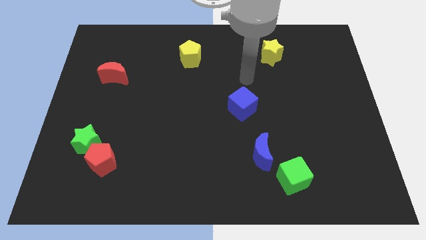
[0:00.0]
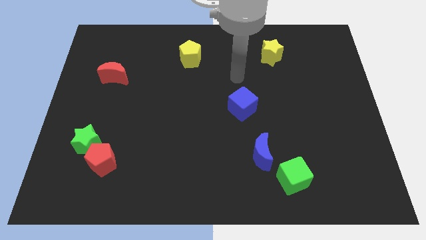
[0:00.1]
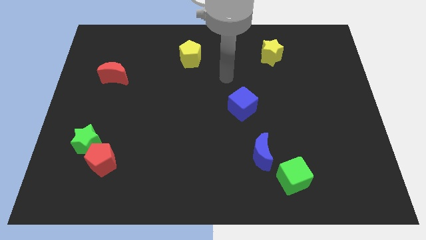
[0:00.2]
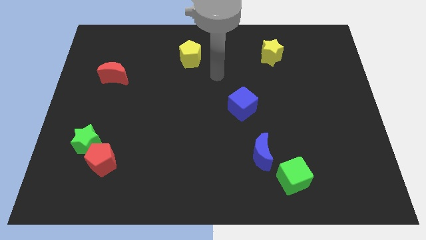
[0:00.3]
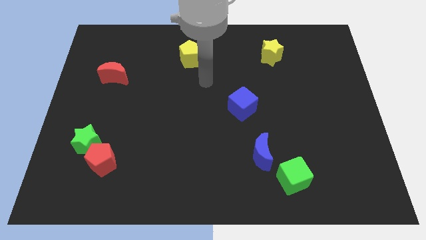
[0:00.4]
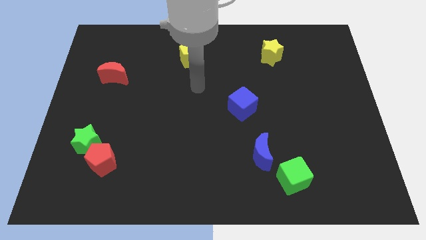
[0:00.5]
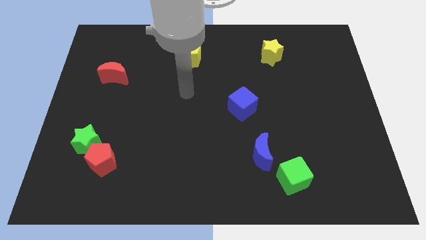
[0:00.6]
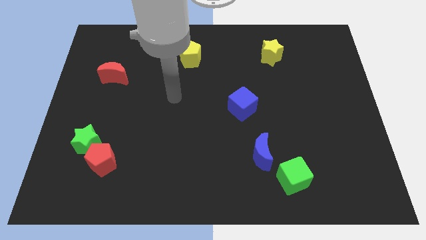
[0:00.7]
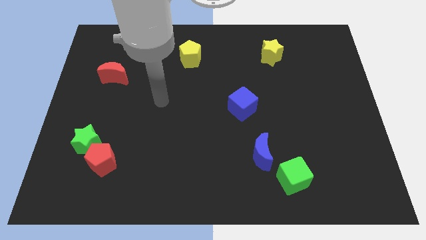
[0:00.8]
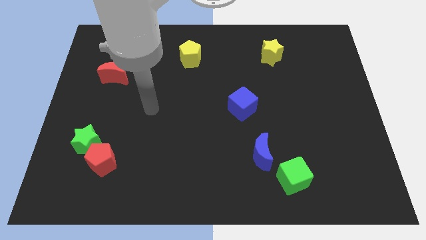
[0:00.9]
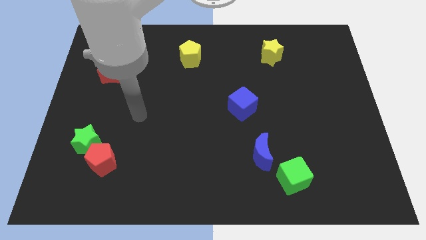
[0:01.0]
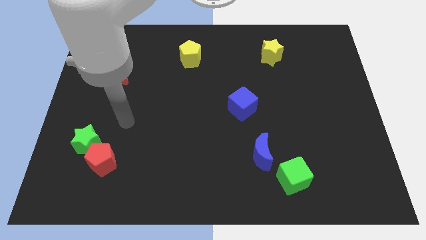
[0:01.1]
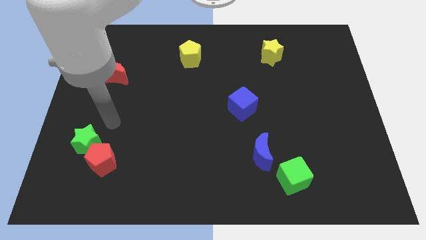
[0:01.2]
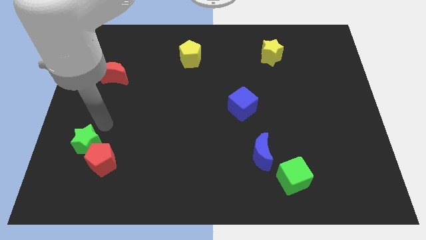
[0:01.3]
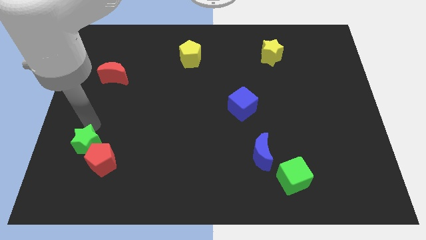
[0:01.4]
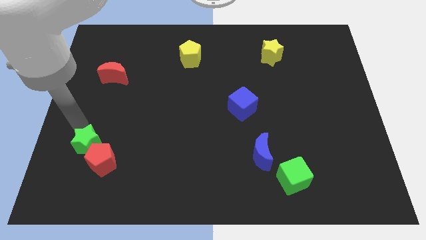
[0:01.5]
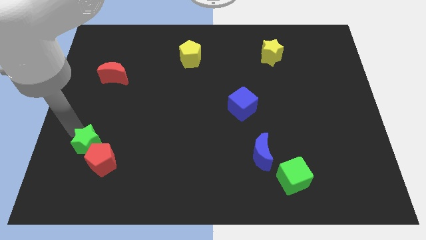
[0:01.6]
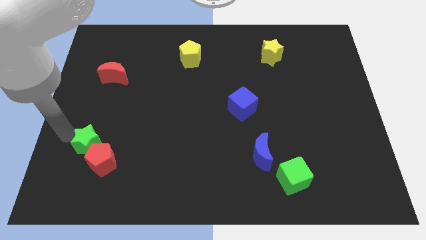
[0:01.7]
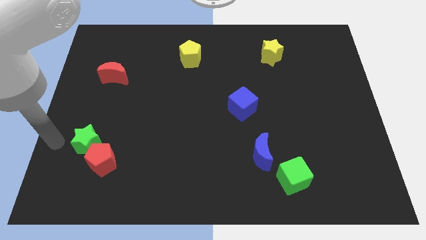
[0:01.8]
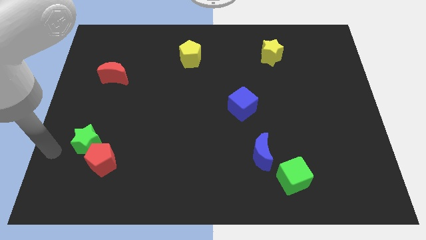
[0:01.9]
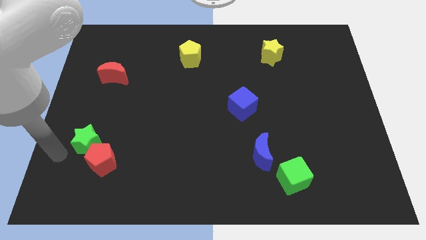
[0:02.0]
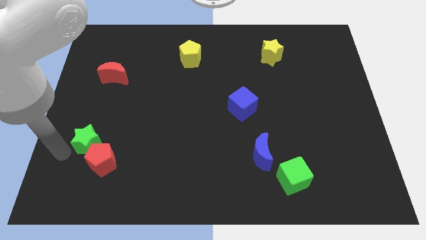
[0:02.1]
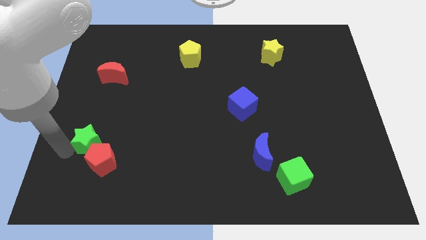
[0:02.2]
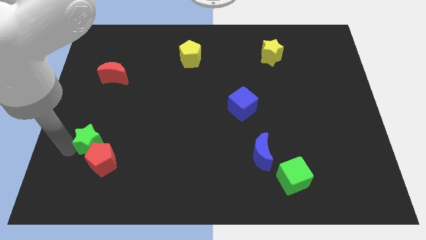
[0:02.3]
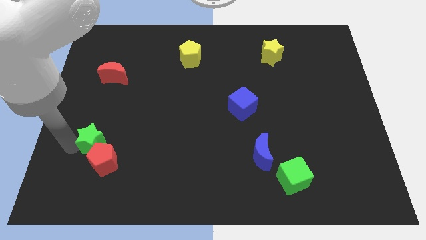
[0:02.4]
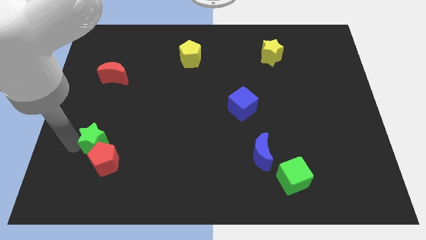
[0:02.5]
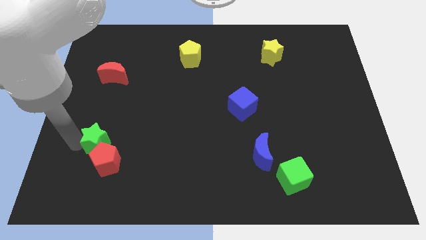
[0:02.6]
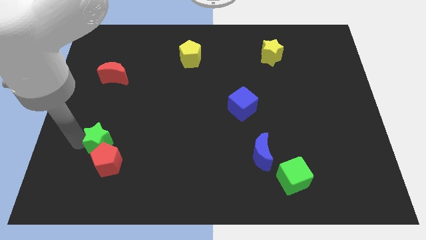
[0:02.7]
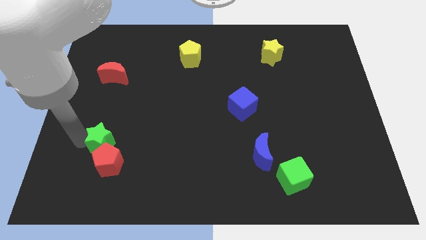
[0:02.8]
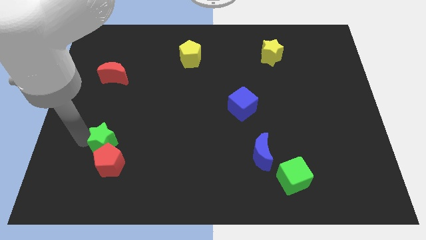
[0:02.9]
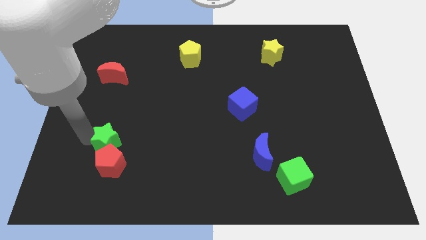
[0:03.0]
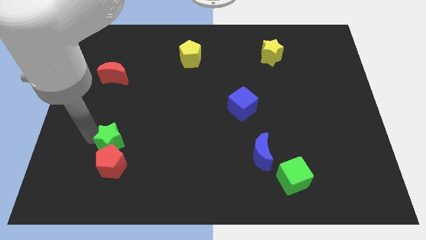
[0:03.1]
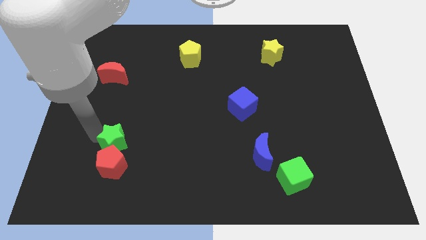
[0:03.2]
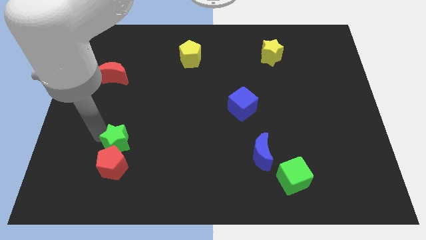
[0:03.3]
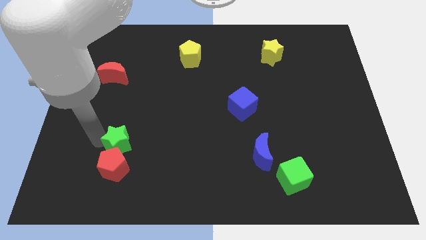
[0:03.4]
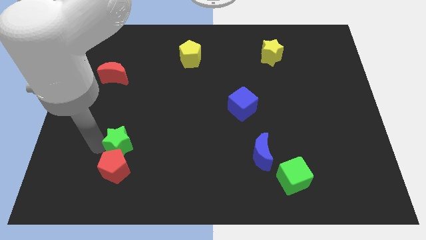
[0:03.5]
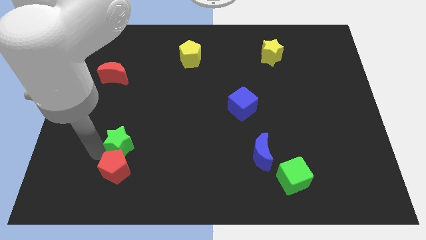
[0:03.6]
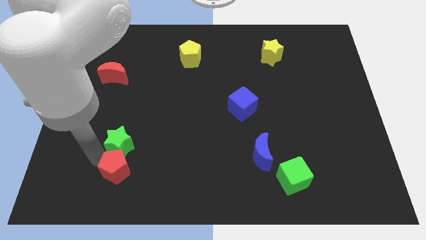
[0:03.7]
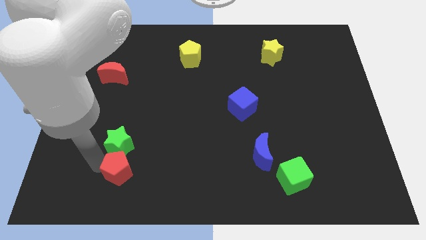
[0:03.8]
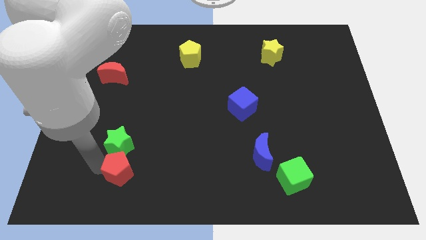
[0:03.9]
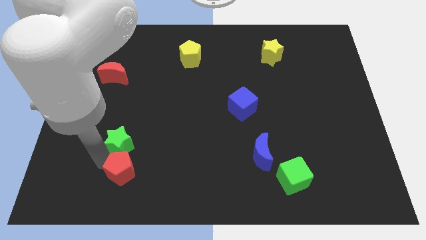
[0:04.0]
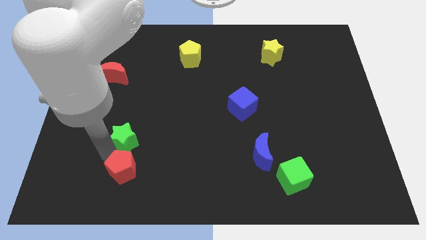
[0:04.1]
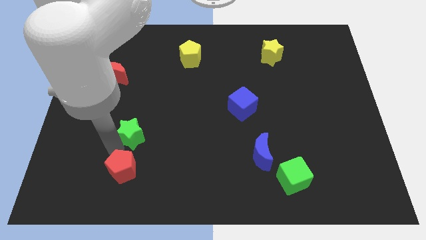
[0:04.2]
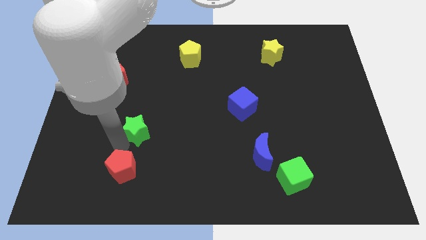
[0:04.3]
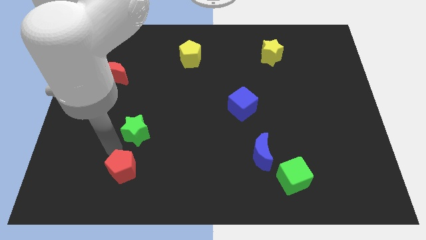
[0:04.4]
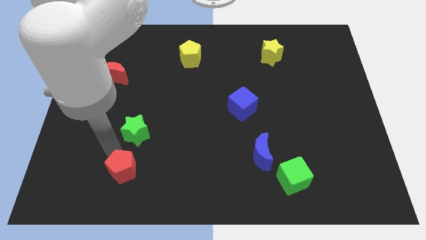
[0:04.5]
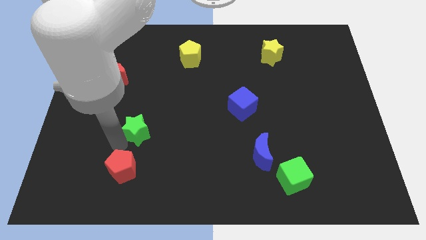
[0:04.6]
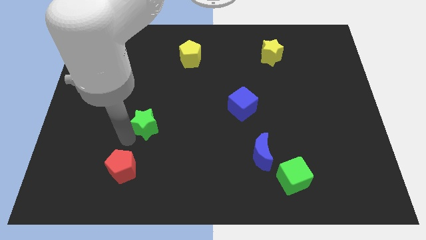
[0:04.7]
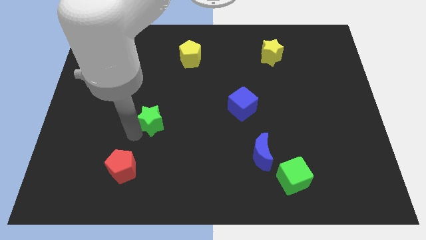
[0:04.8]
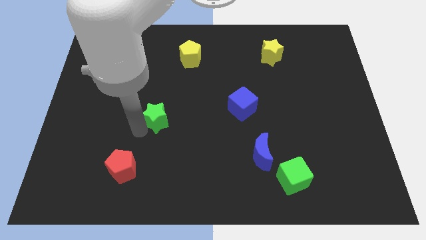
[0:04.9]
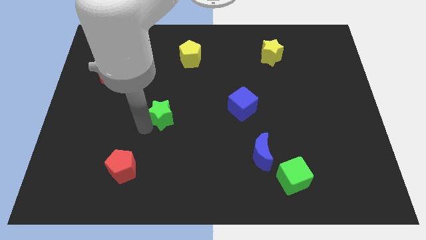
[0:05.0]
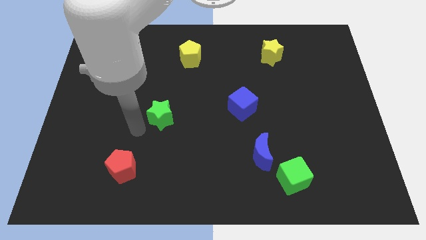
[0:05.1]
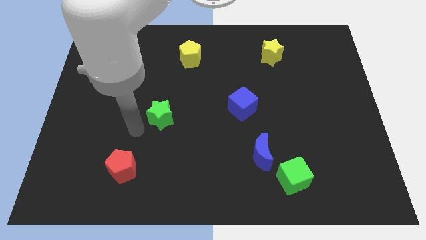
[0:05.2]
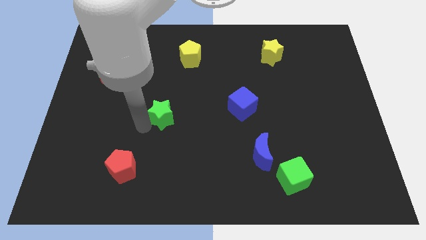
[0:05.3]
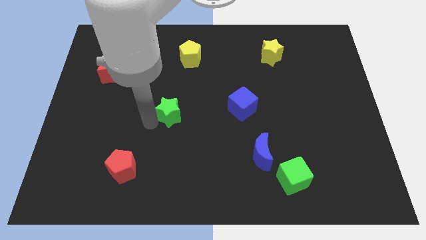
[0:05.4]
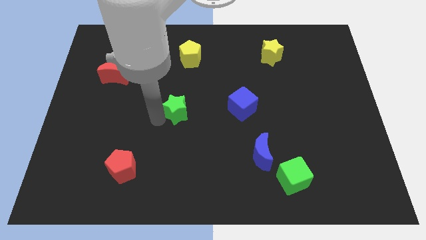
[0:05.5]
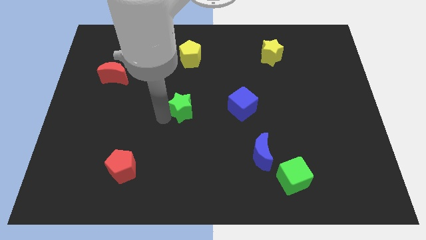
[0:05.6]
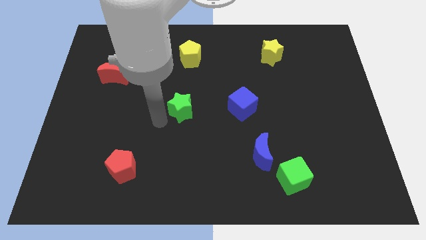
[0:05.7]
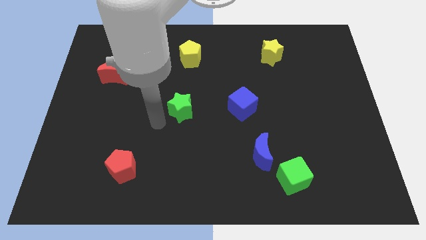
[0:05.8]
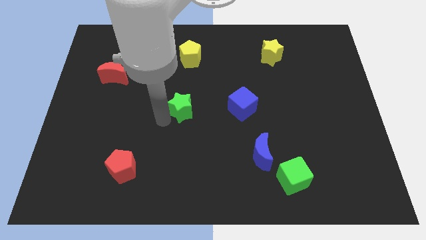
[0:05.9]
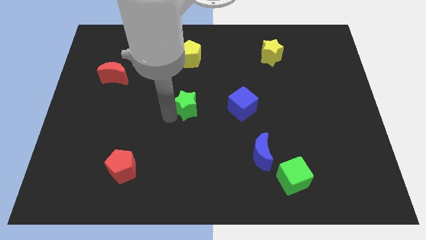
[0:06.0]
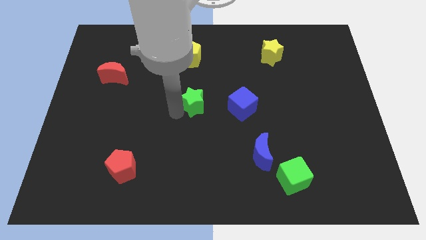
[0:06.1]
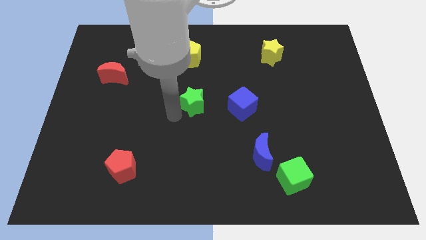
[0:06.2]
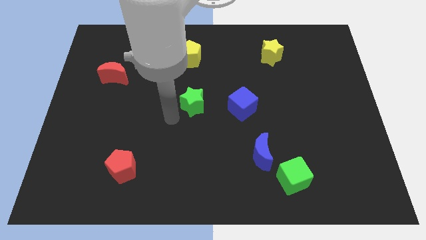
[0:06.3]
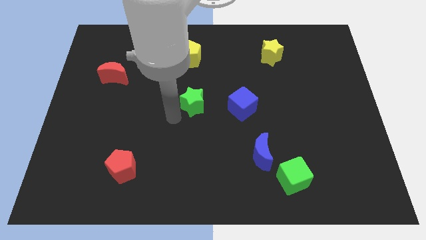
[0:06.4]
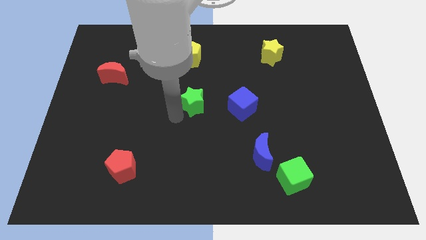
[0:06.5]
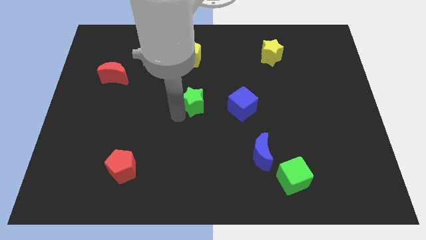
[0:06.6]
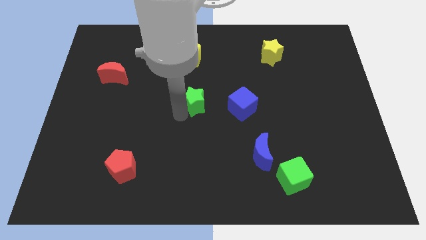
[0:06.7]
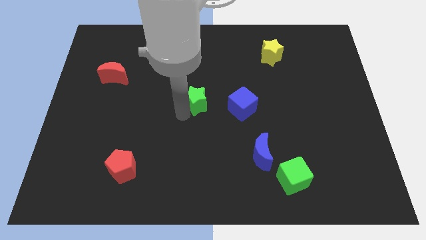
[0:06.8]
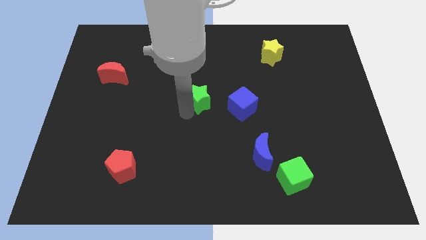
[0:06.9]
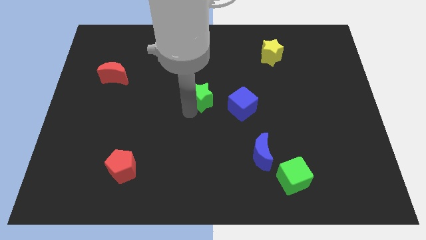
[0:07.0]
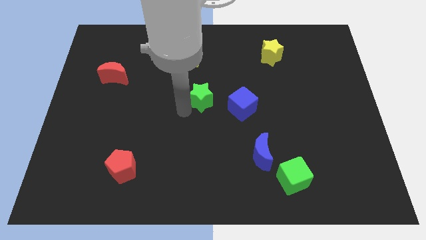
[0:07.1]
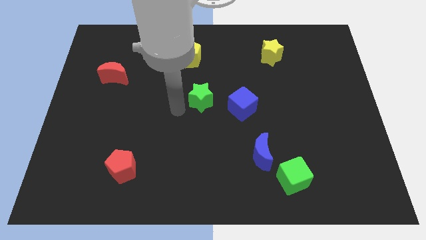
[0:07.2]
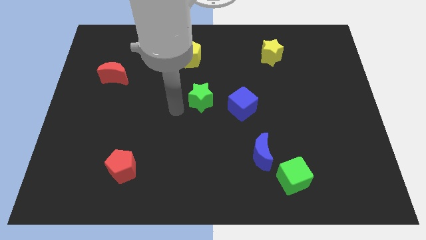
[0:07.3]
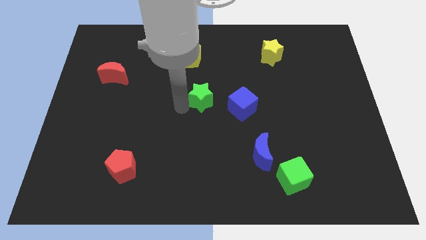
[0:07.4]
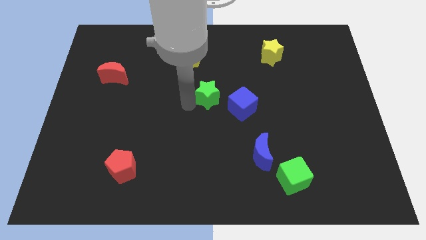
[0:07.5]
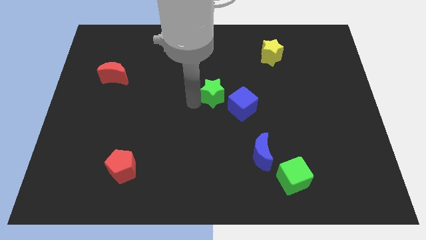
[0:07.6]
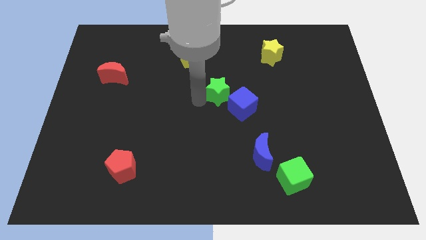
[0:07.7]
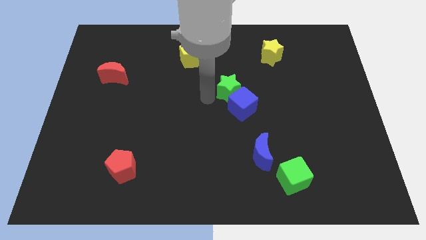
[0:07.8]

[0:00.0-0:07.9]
move the green star to the top side of the blue cube
